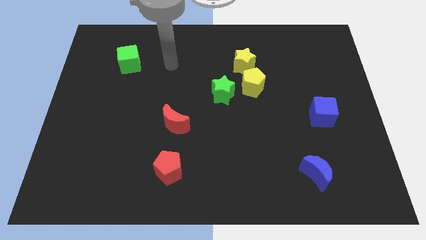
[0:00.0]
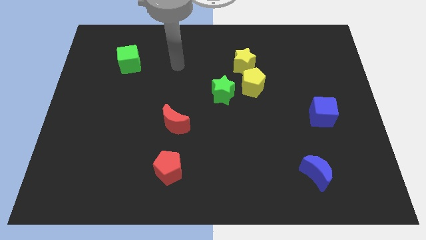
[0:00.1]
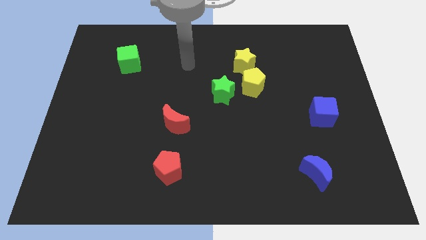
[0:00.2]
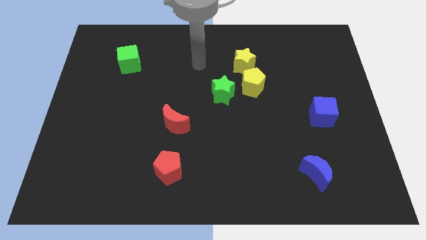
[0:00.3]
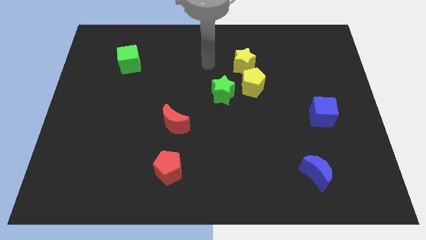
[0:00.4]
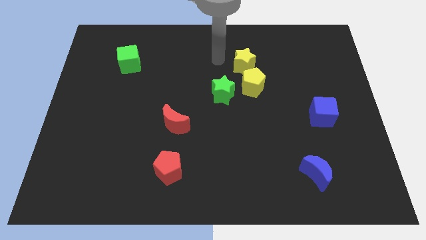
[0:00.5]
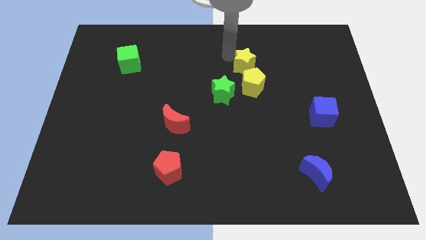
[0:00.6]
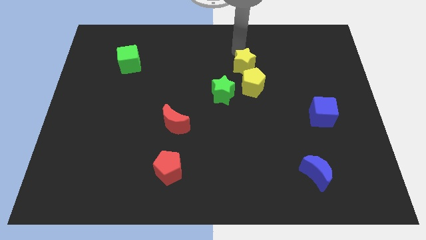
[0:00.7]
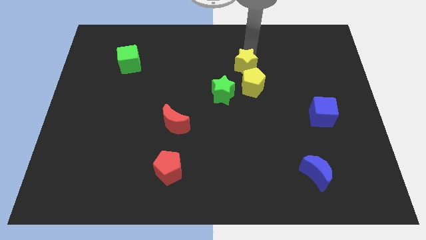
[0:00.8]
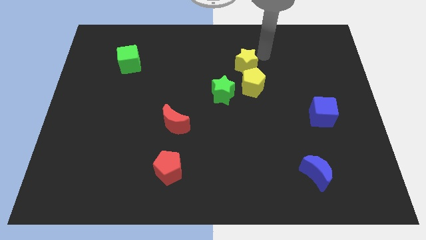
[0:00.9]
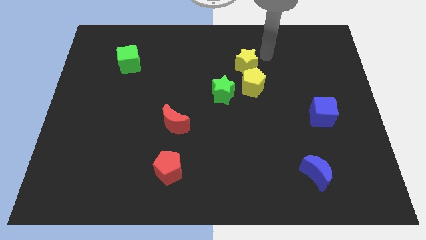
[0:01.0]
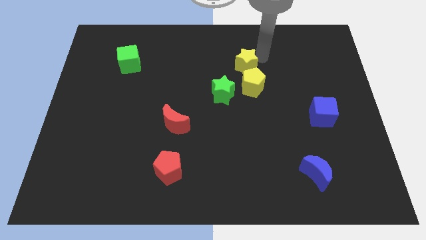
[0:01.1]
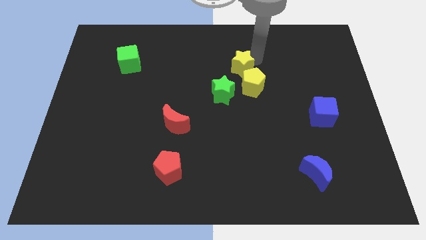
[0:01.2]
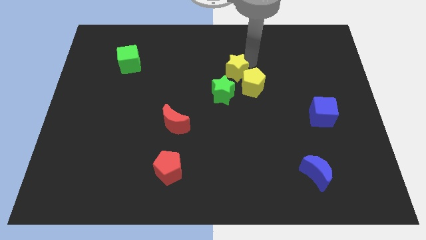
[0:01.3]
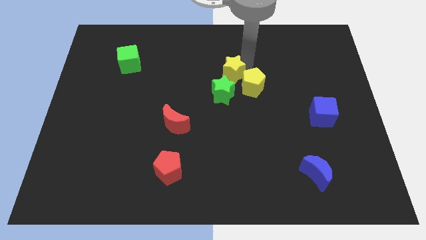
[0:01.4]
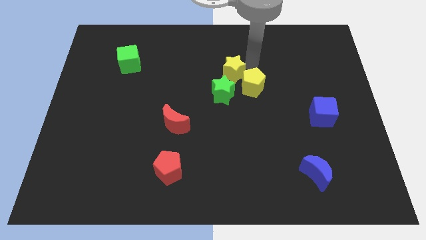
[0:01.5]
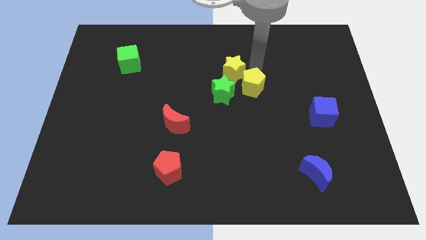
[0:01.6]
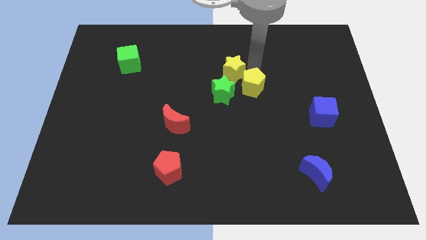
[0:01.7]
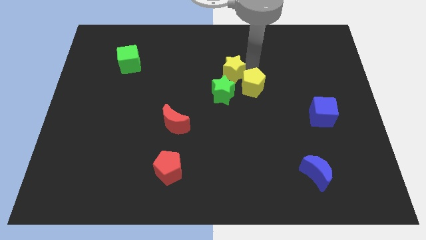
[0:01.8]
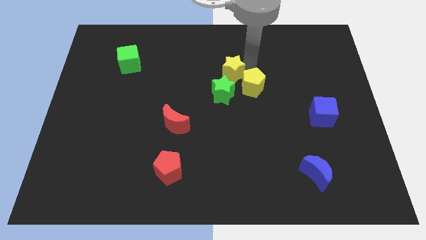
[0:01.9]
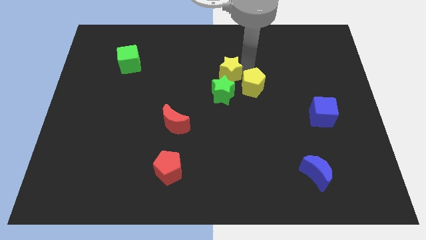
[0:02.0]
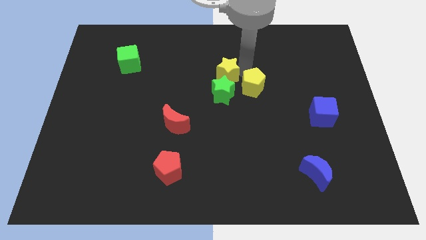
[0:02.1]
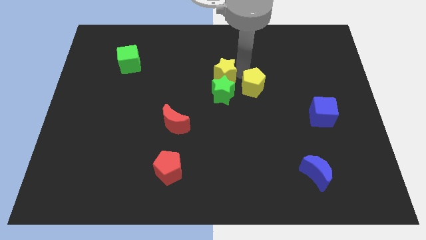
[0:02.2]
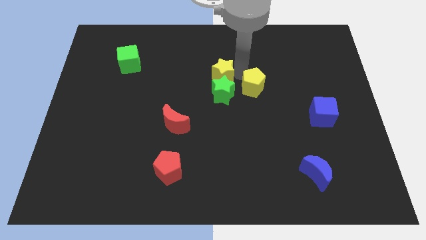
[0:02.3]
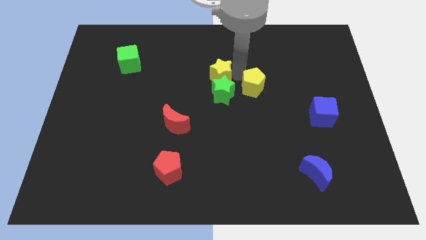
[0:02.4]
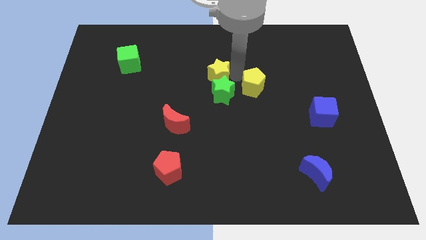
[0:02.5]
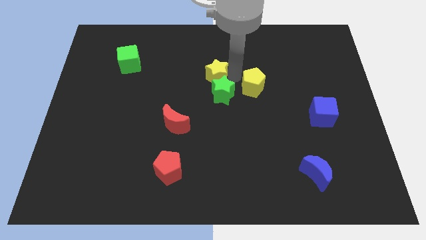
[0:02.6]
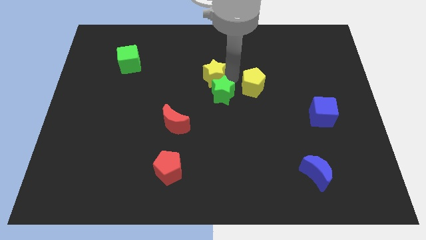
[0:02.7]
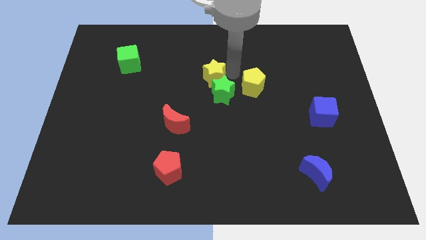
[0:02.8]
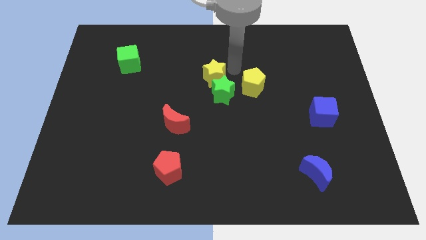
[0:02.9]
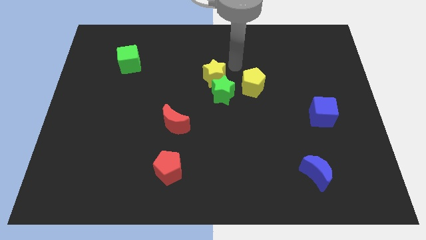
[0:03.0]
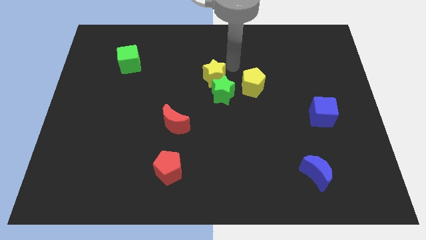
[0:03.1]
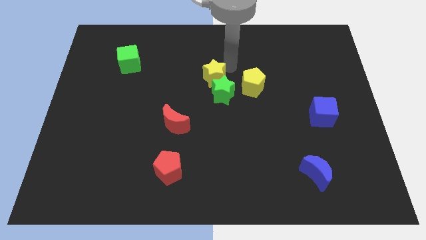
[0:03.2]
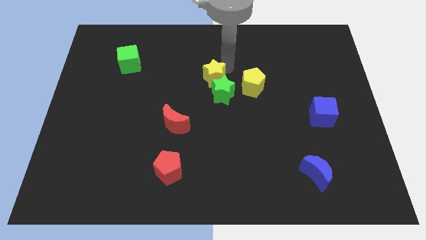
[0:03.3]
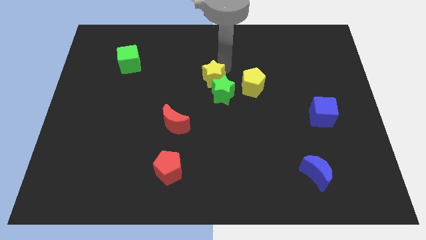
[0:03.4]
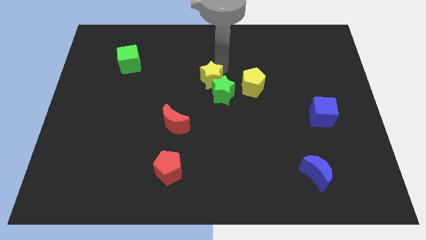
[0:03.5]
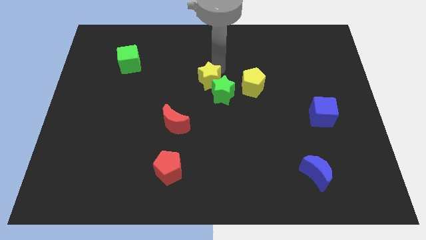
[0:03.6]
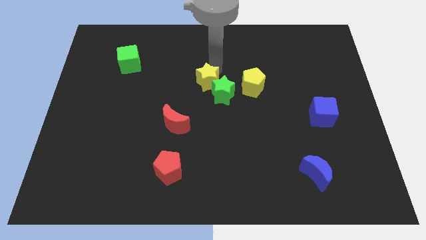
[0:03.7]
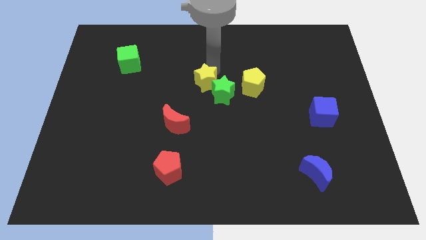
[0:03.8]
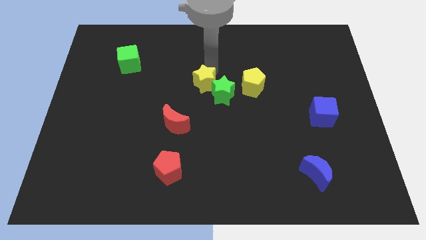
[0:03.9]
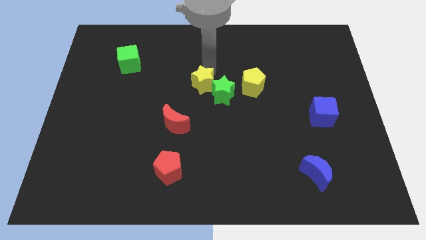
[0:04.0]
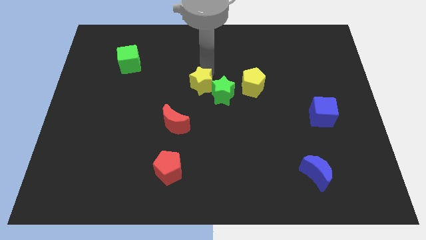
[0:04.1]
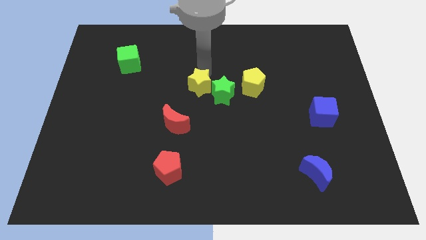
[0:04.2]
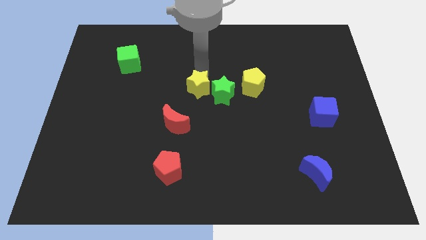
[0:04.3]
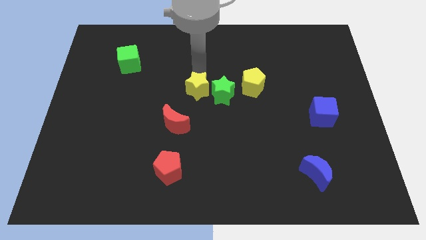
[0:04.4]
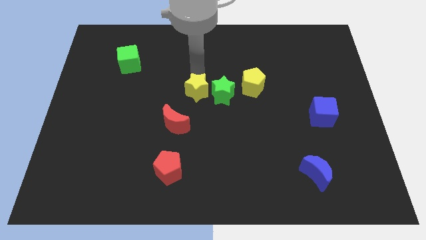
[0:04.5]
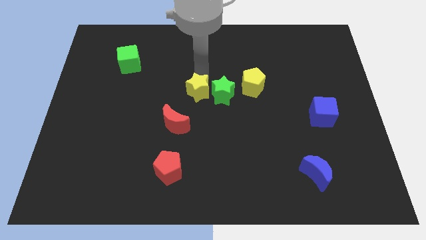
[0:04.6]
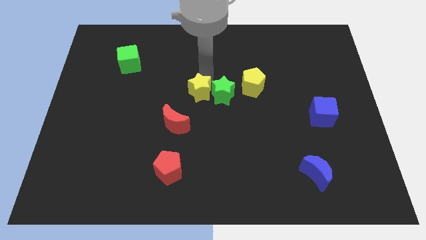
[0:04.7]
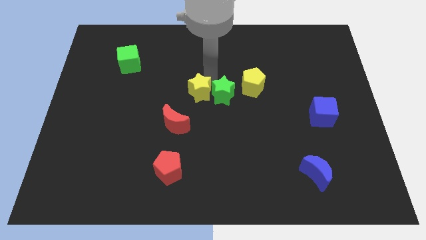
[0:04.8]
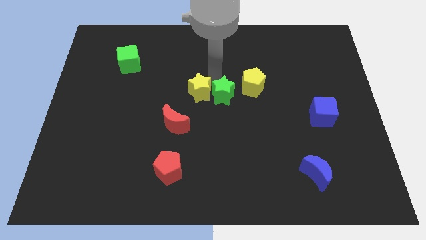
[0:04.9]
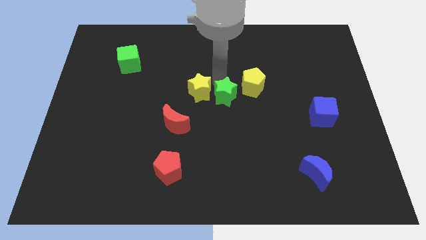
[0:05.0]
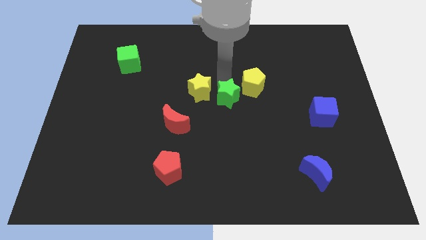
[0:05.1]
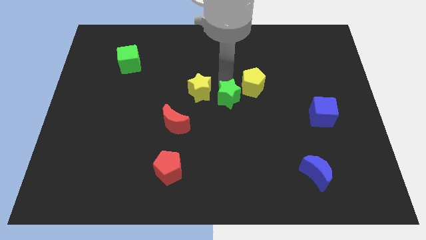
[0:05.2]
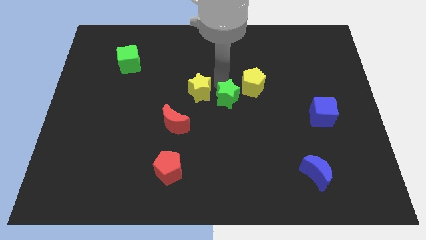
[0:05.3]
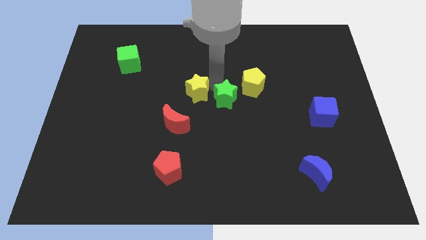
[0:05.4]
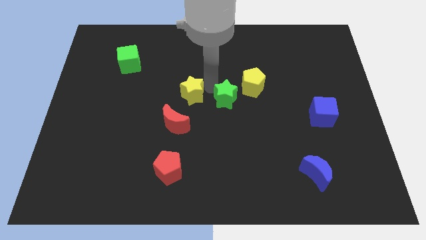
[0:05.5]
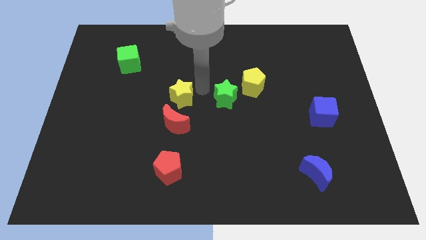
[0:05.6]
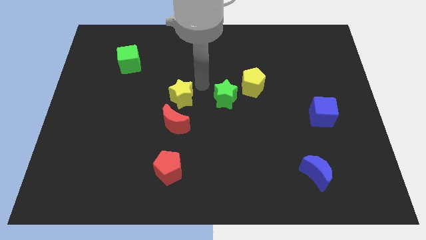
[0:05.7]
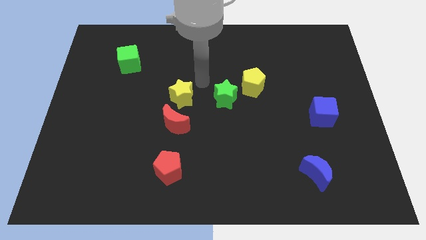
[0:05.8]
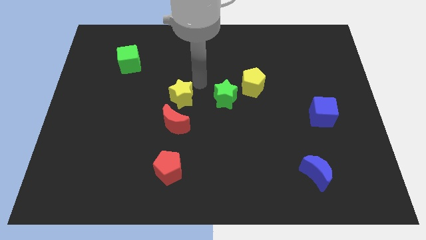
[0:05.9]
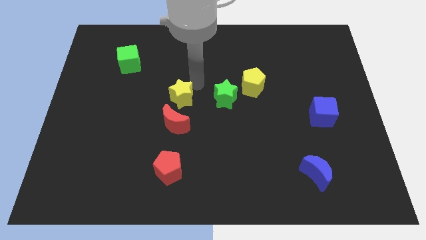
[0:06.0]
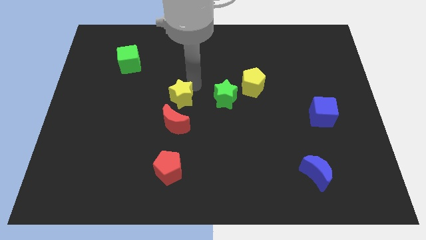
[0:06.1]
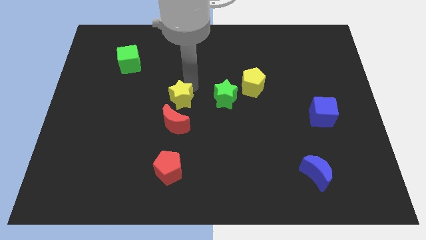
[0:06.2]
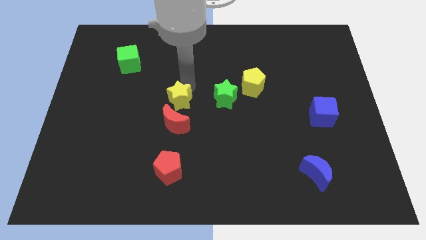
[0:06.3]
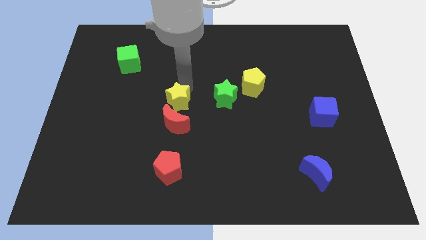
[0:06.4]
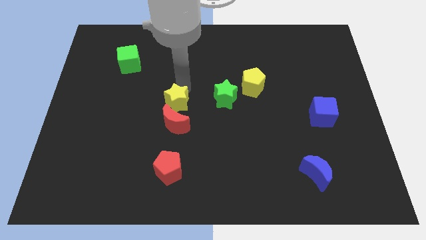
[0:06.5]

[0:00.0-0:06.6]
move the yellow star diagonally downwards and left

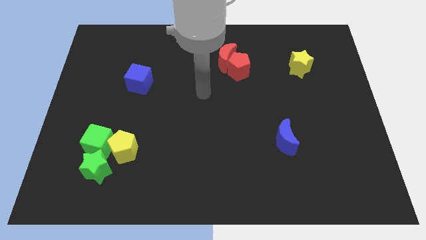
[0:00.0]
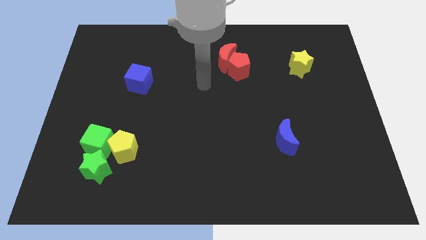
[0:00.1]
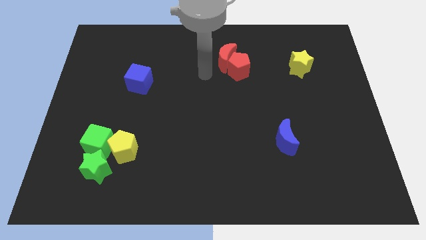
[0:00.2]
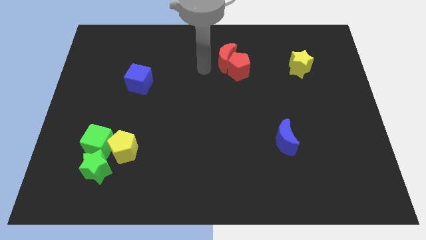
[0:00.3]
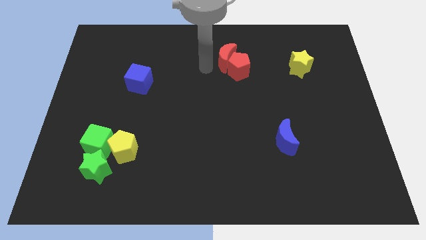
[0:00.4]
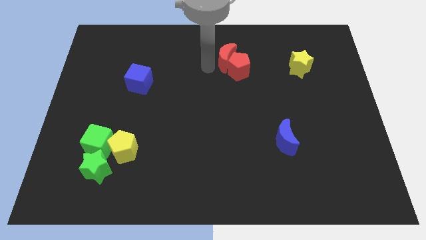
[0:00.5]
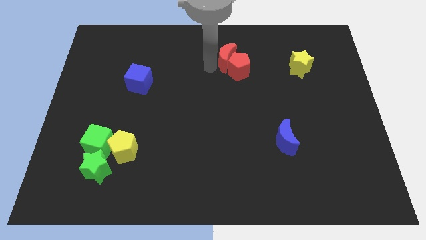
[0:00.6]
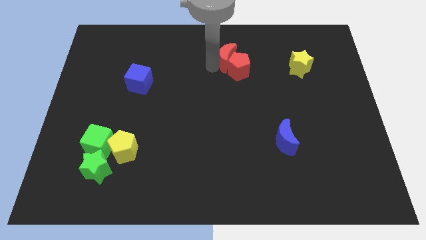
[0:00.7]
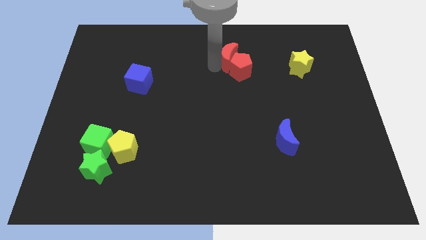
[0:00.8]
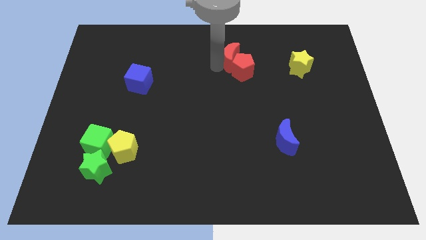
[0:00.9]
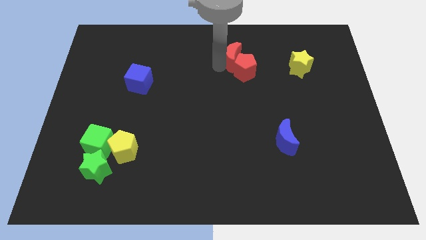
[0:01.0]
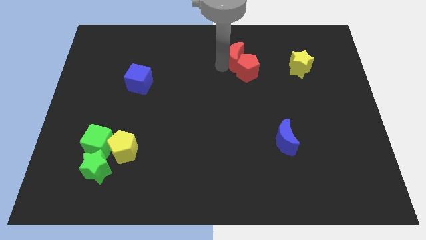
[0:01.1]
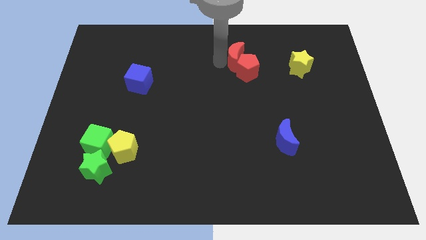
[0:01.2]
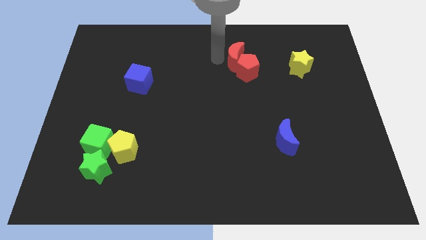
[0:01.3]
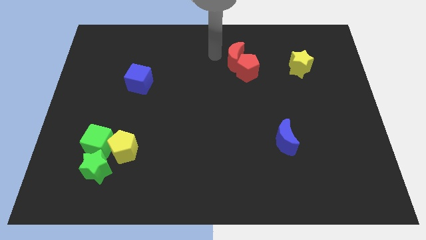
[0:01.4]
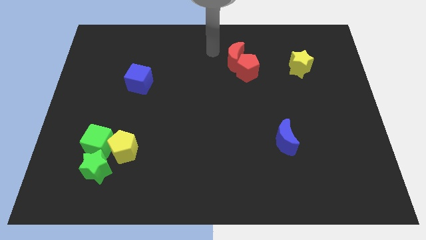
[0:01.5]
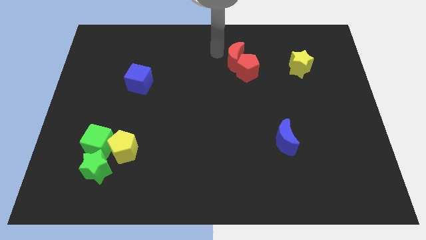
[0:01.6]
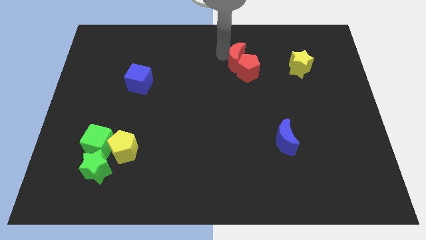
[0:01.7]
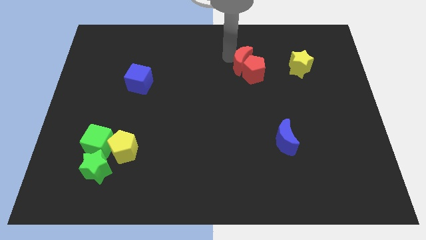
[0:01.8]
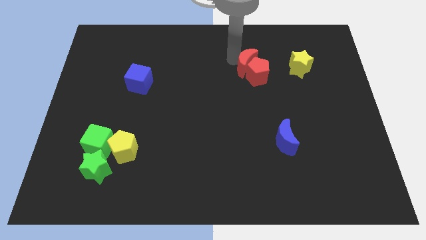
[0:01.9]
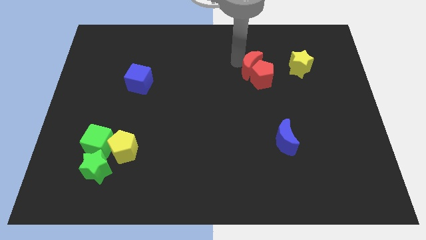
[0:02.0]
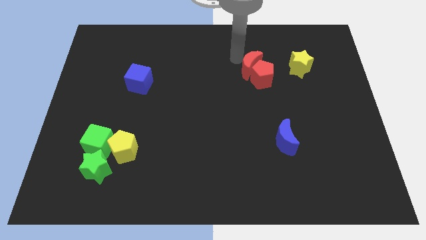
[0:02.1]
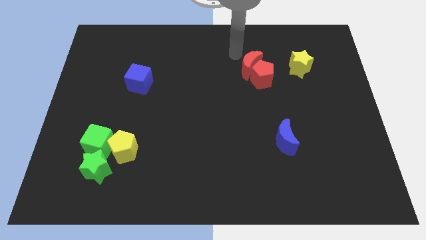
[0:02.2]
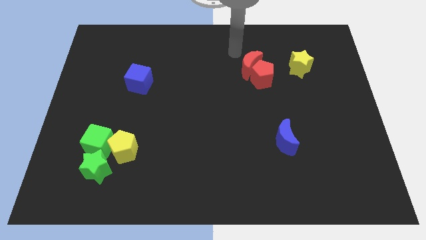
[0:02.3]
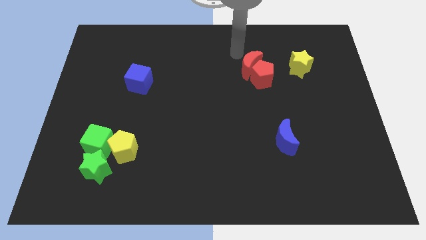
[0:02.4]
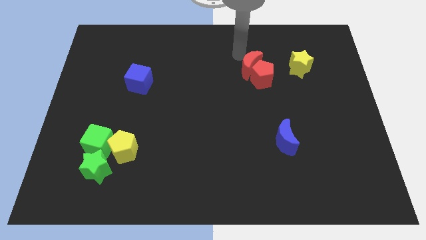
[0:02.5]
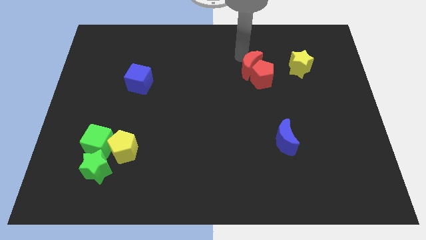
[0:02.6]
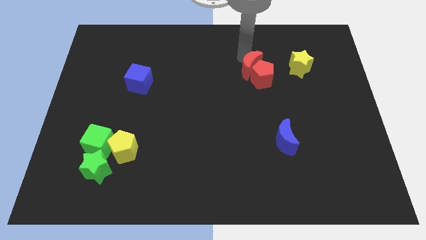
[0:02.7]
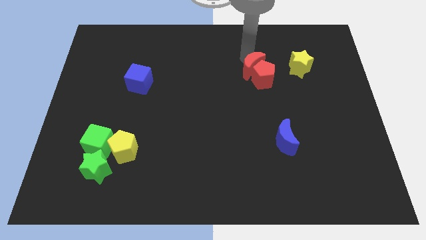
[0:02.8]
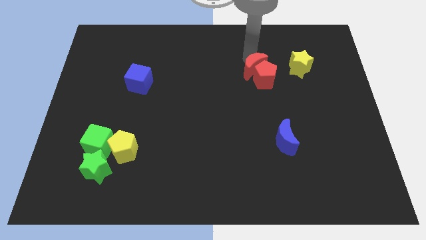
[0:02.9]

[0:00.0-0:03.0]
move the red moon a little bit downwards and to the right diagonally
